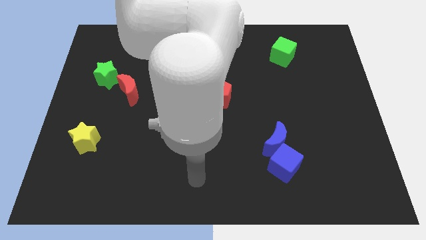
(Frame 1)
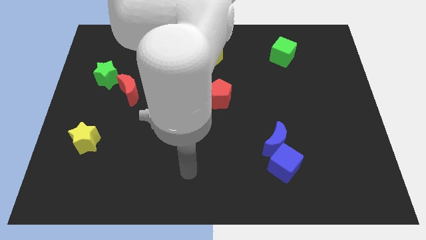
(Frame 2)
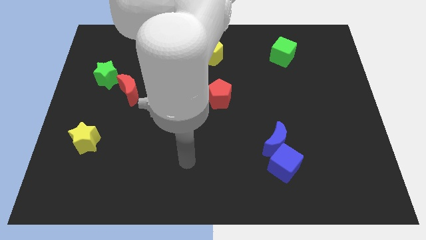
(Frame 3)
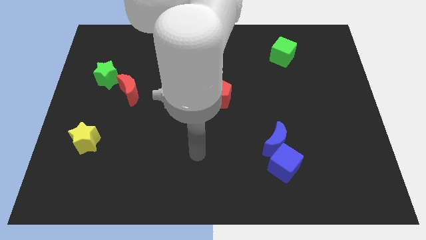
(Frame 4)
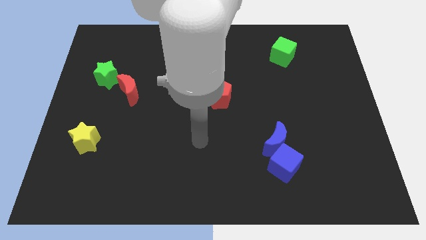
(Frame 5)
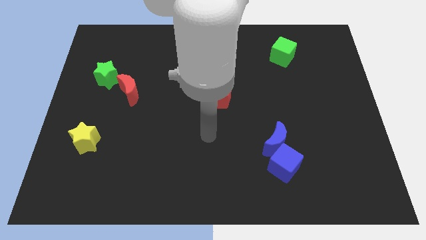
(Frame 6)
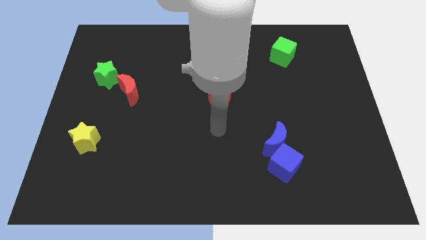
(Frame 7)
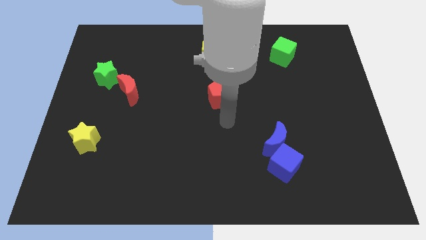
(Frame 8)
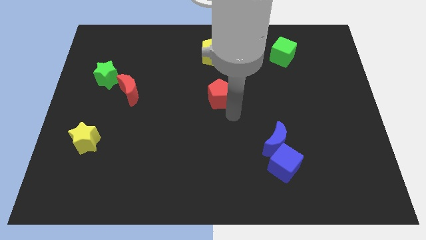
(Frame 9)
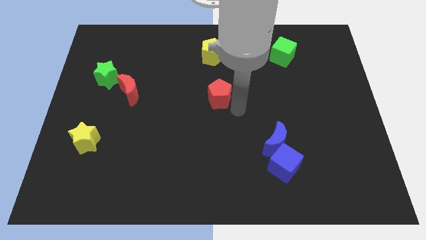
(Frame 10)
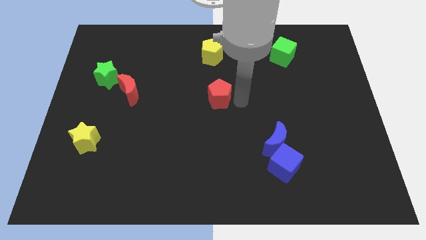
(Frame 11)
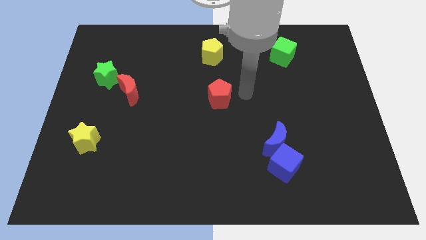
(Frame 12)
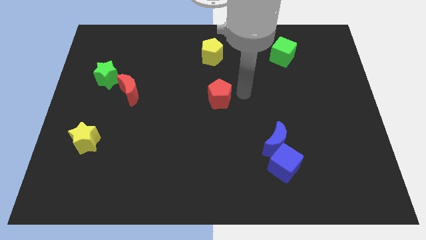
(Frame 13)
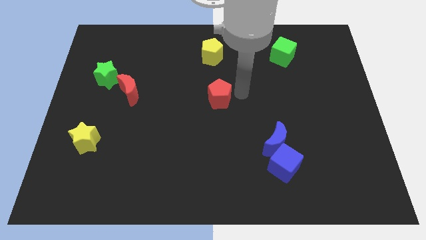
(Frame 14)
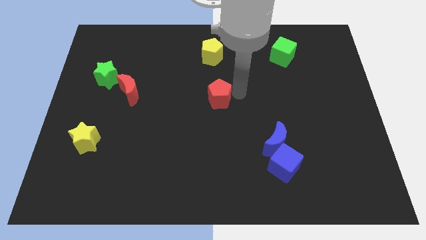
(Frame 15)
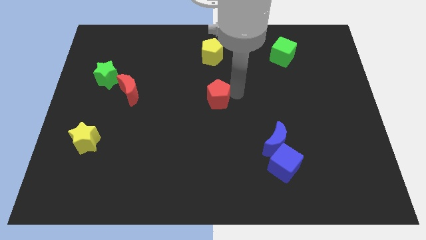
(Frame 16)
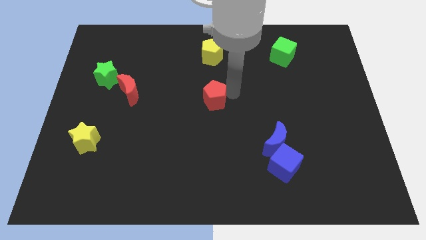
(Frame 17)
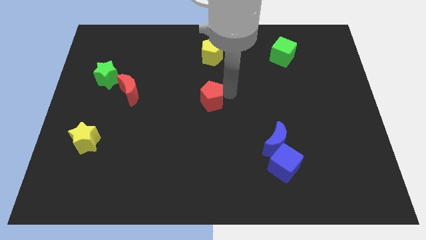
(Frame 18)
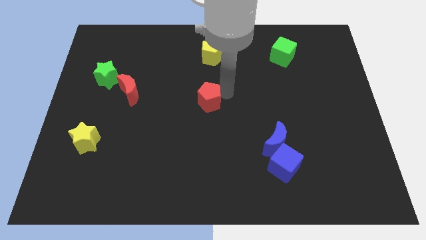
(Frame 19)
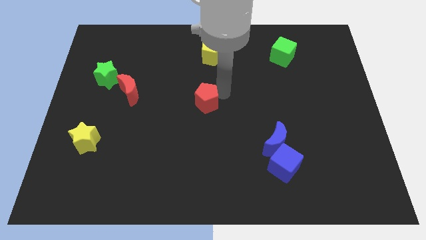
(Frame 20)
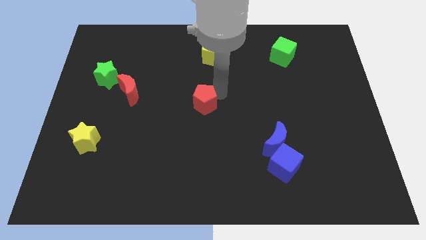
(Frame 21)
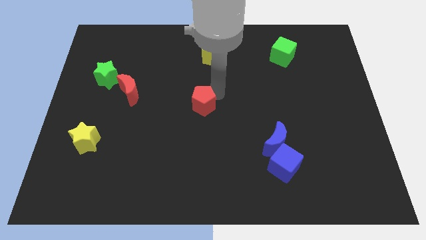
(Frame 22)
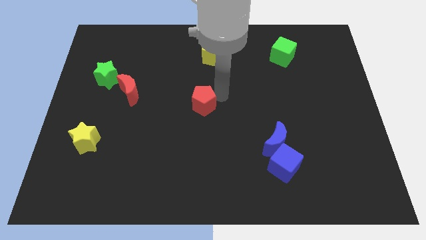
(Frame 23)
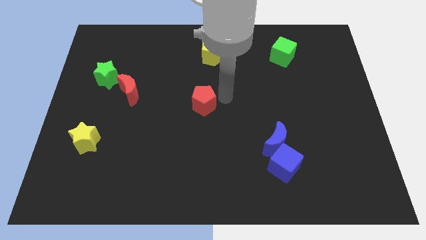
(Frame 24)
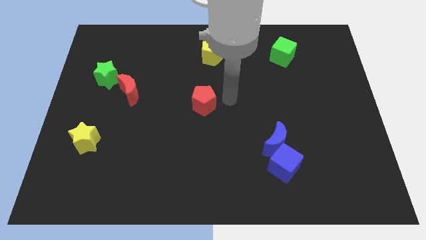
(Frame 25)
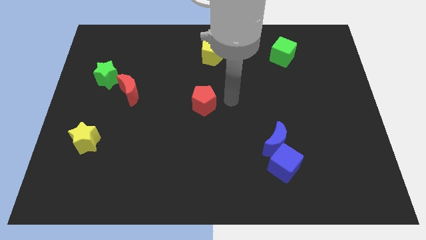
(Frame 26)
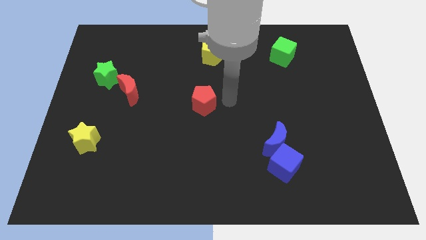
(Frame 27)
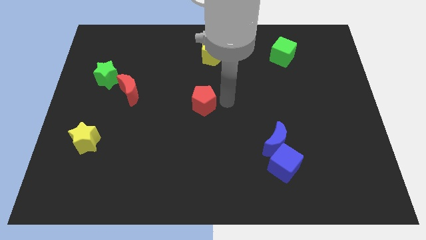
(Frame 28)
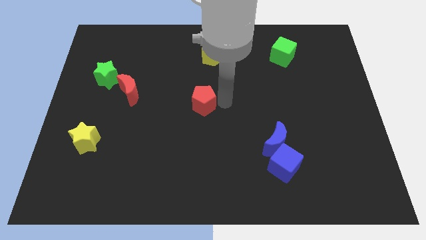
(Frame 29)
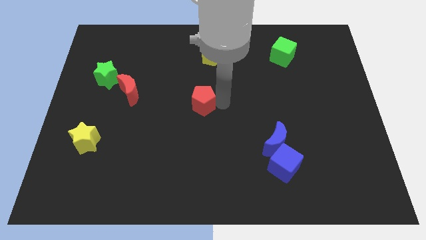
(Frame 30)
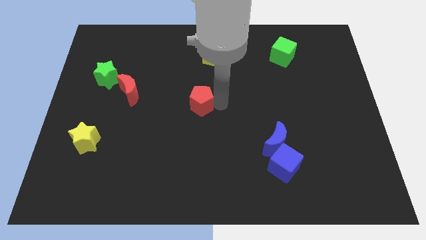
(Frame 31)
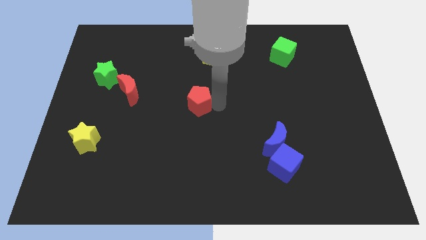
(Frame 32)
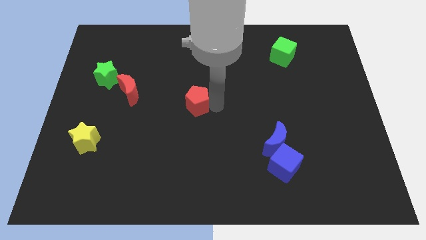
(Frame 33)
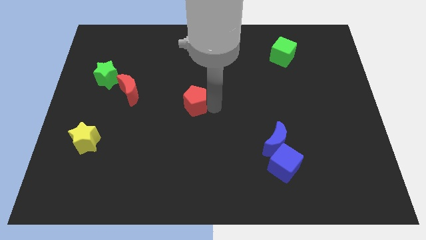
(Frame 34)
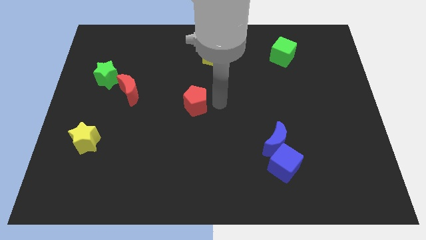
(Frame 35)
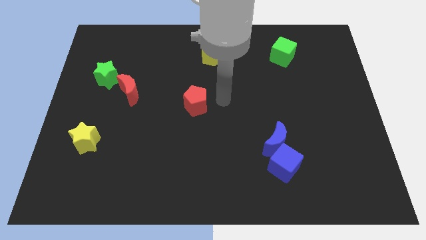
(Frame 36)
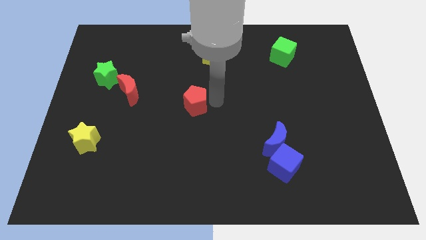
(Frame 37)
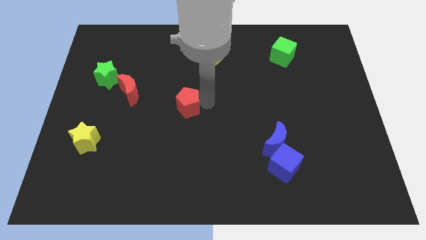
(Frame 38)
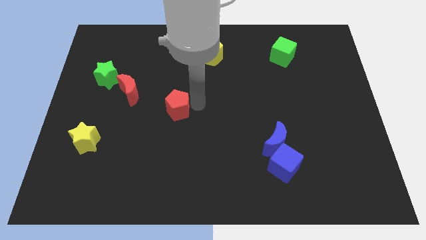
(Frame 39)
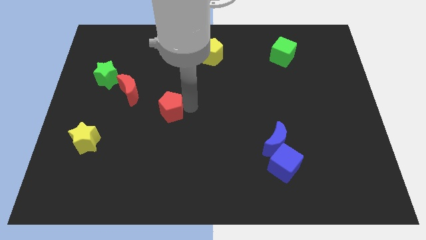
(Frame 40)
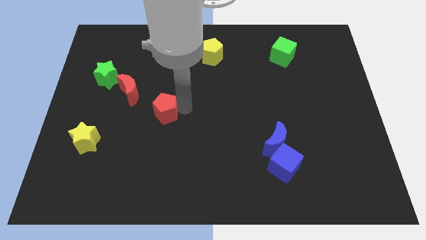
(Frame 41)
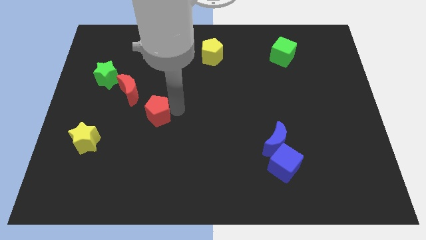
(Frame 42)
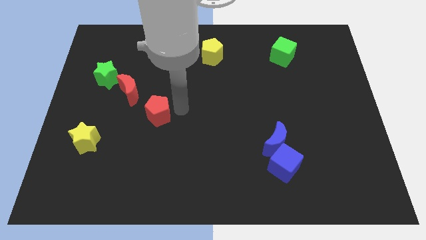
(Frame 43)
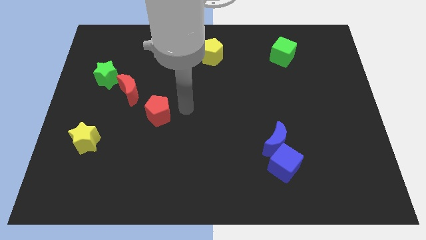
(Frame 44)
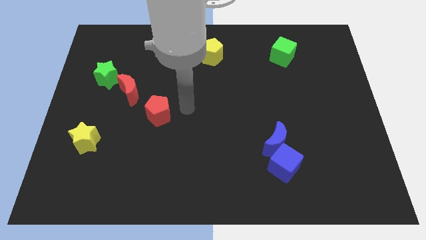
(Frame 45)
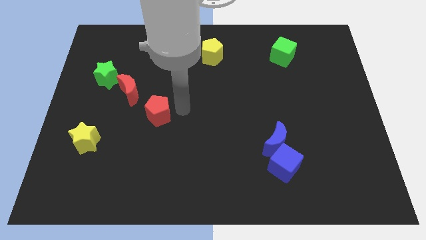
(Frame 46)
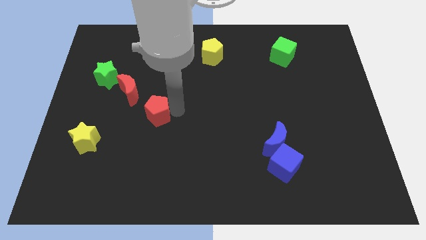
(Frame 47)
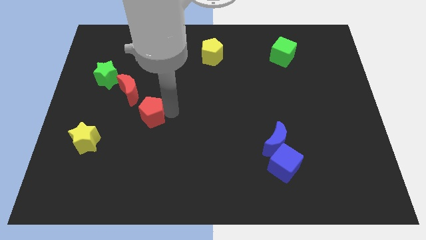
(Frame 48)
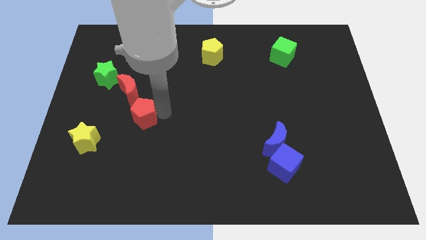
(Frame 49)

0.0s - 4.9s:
move the red pentagon to the bottom of the red moon

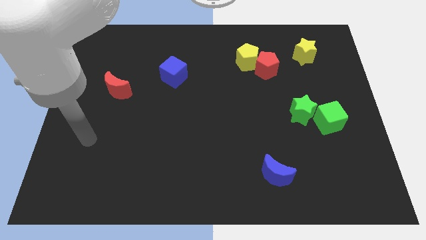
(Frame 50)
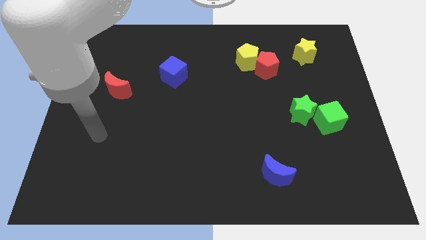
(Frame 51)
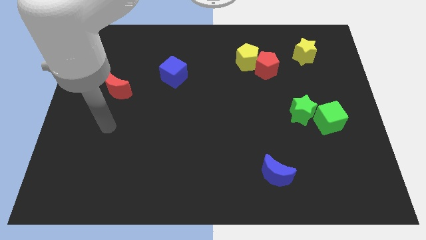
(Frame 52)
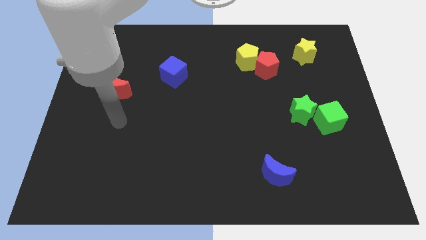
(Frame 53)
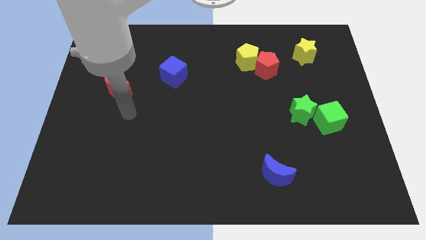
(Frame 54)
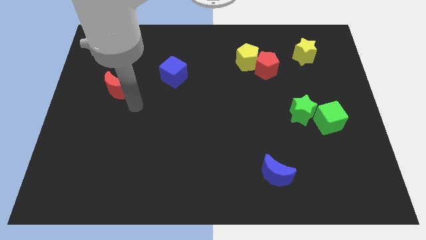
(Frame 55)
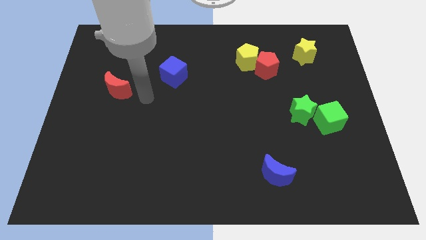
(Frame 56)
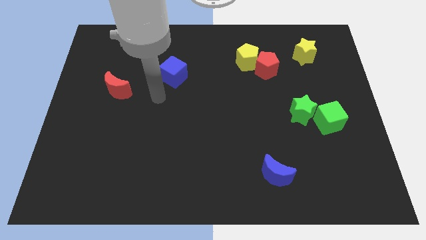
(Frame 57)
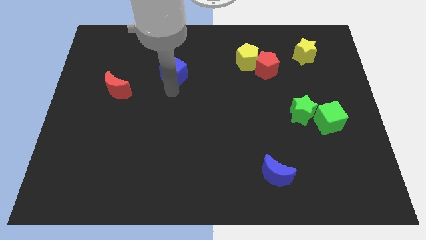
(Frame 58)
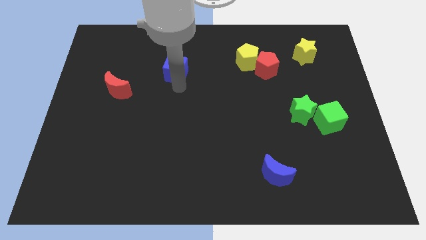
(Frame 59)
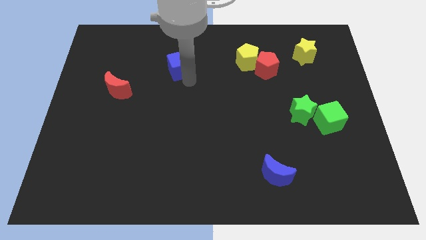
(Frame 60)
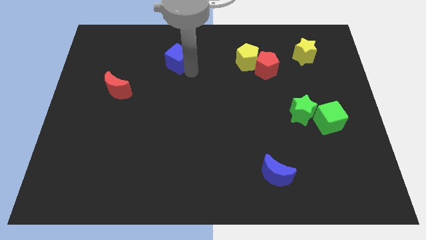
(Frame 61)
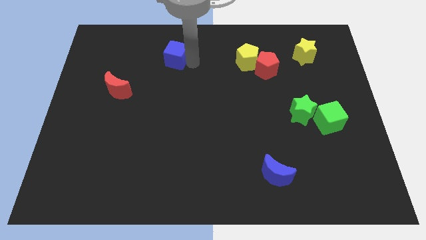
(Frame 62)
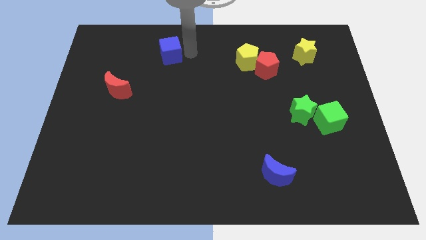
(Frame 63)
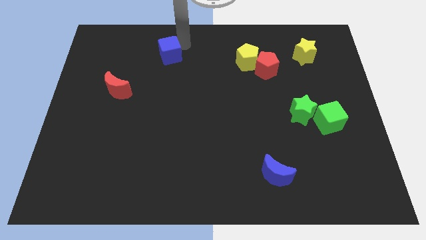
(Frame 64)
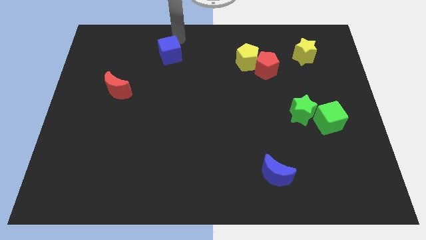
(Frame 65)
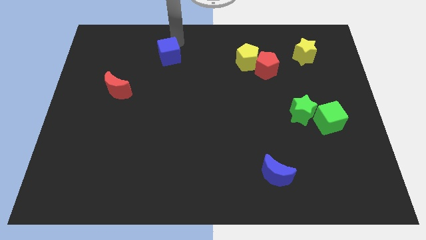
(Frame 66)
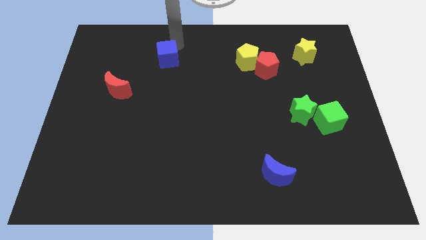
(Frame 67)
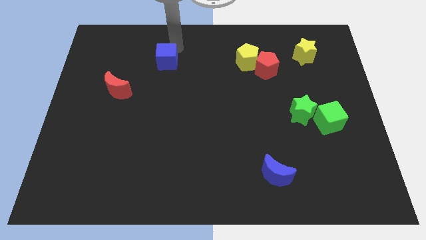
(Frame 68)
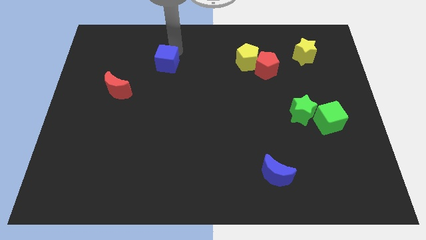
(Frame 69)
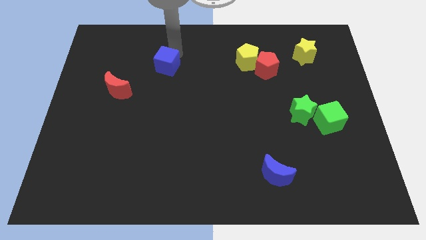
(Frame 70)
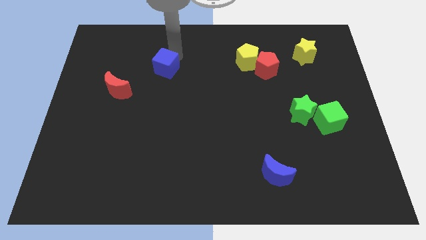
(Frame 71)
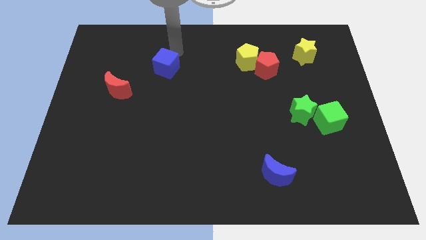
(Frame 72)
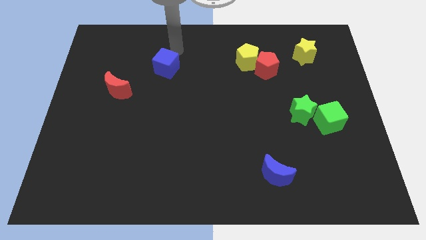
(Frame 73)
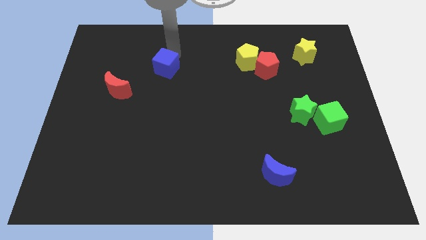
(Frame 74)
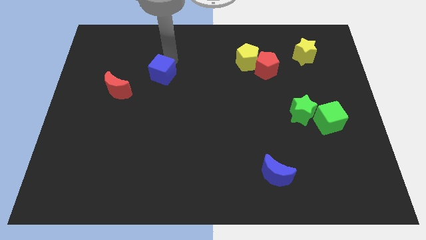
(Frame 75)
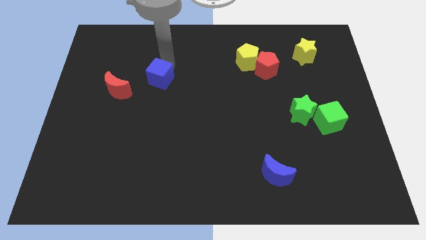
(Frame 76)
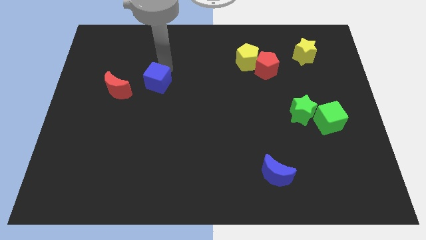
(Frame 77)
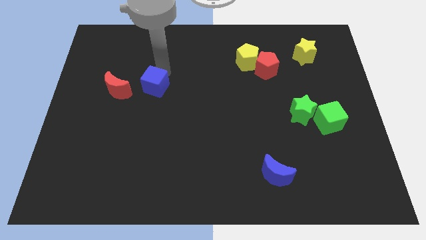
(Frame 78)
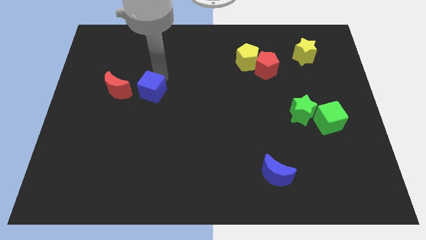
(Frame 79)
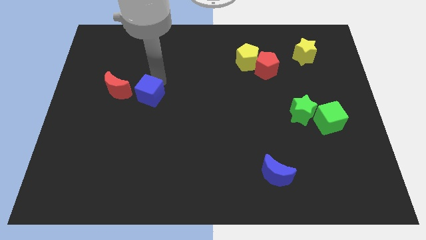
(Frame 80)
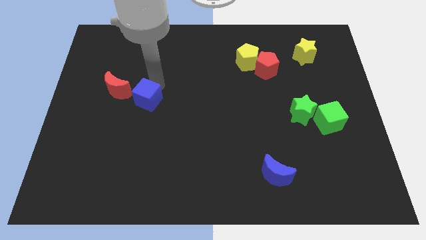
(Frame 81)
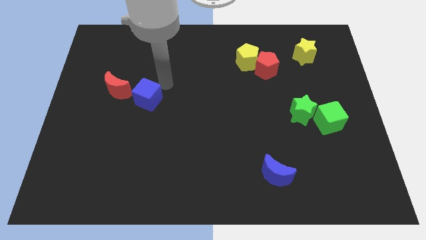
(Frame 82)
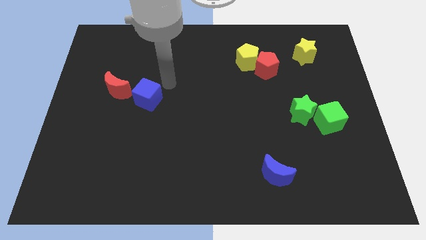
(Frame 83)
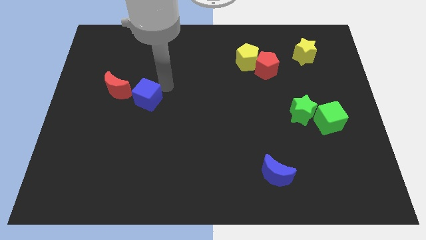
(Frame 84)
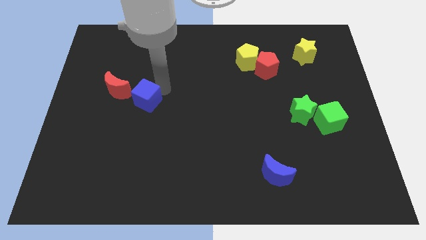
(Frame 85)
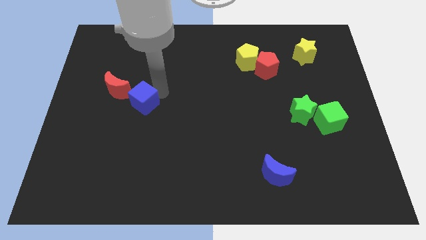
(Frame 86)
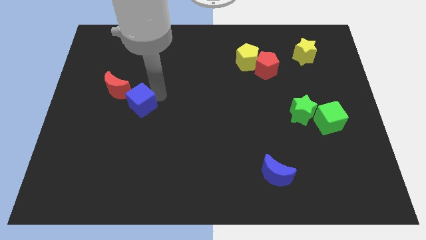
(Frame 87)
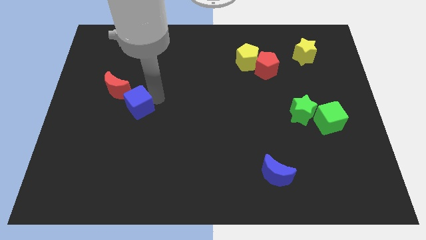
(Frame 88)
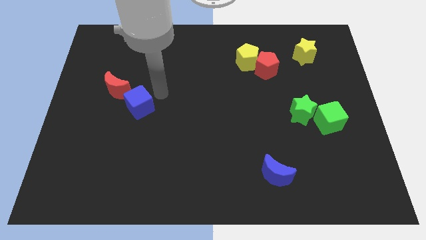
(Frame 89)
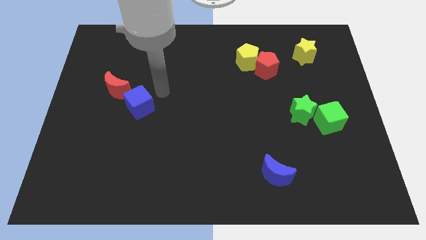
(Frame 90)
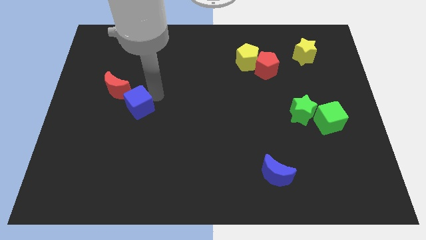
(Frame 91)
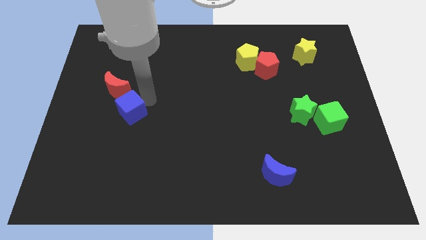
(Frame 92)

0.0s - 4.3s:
move the blue cube to the bottom side of the red moon
